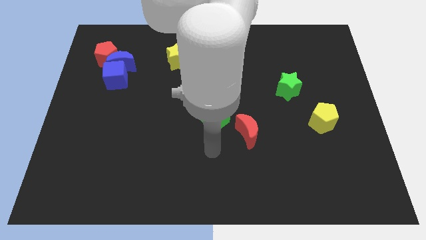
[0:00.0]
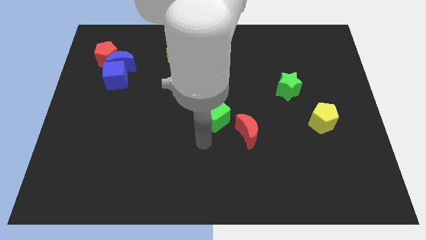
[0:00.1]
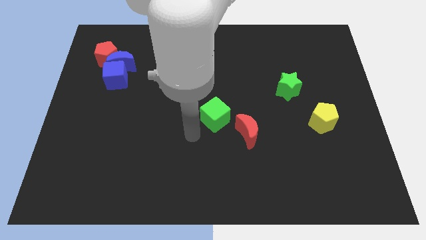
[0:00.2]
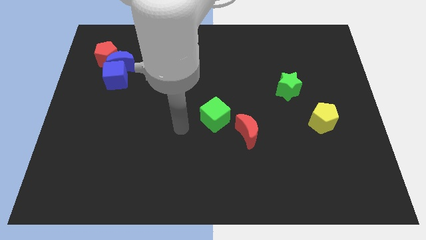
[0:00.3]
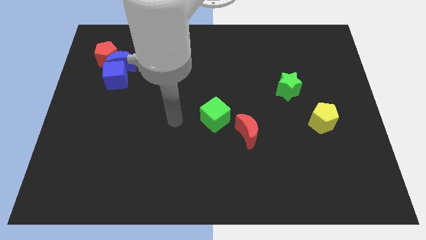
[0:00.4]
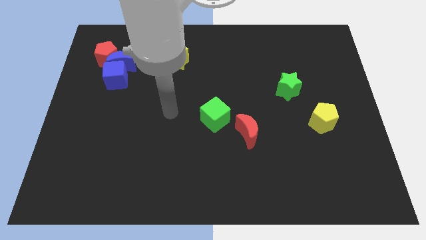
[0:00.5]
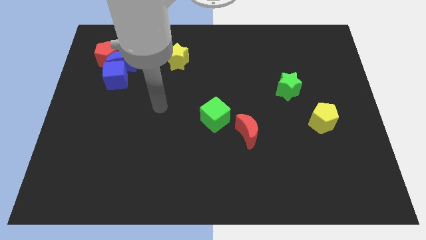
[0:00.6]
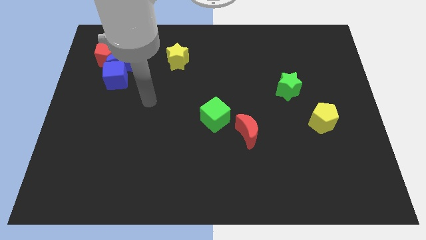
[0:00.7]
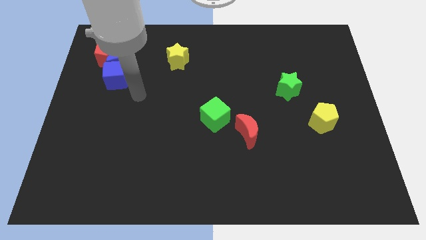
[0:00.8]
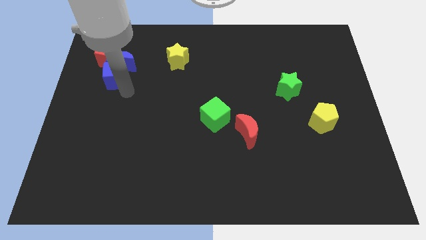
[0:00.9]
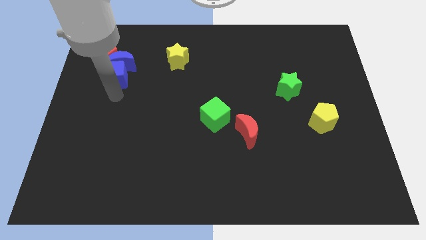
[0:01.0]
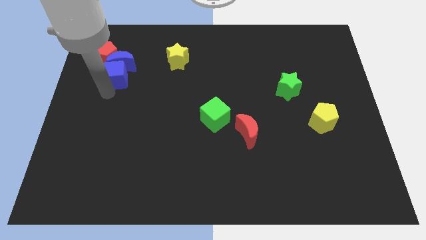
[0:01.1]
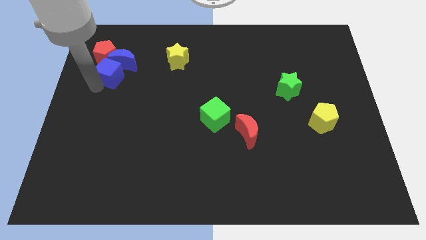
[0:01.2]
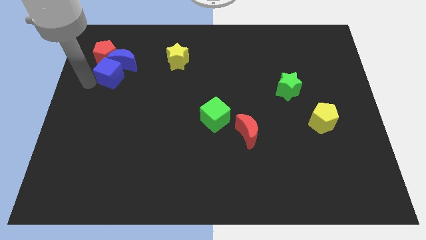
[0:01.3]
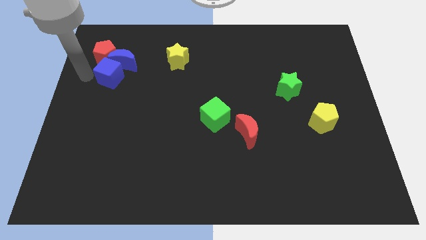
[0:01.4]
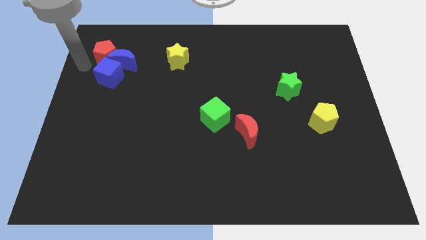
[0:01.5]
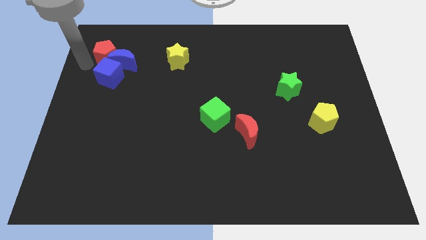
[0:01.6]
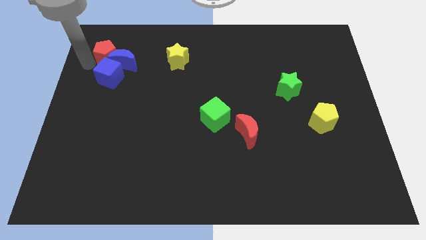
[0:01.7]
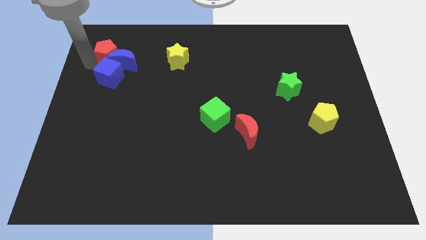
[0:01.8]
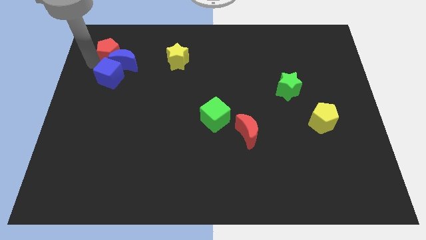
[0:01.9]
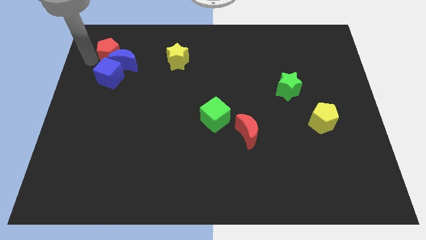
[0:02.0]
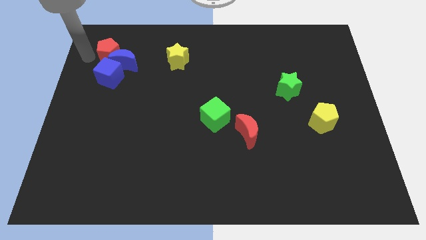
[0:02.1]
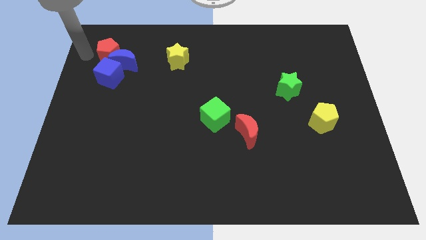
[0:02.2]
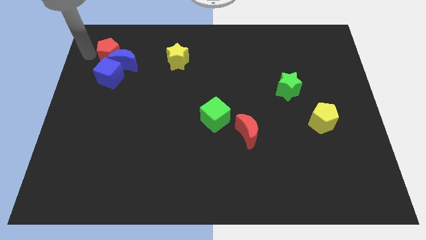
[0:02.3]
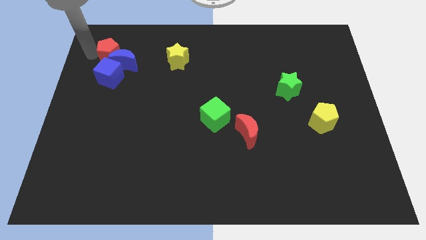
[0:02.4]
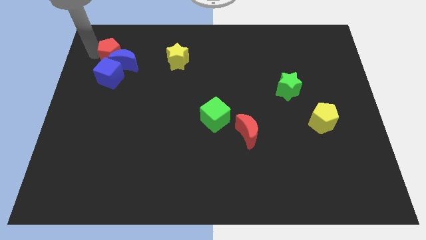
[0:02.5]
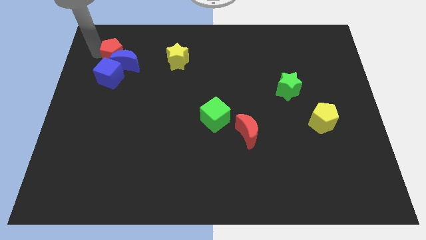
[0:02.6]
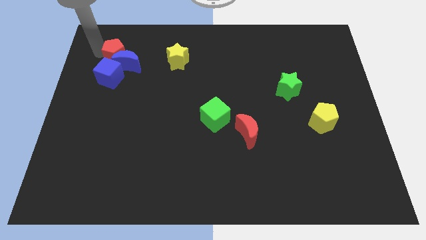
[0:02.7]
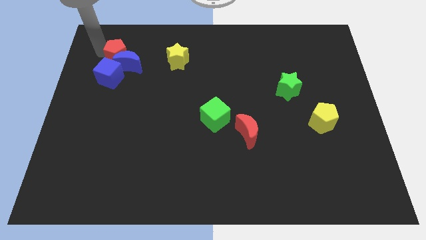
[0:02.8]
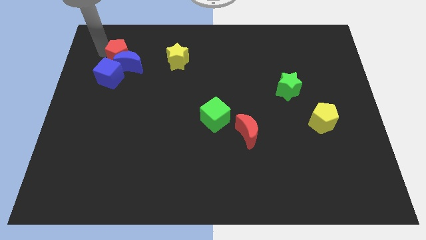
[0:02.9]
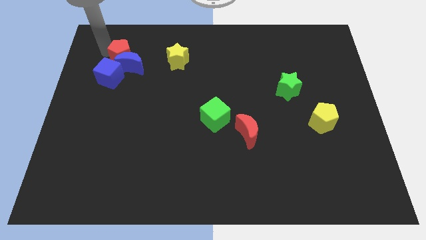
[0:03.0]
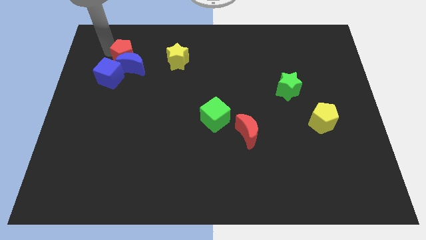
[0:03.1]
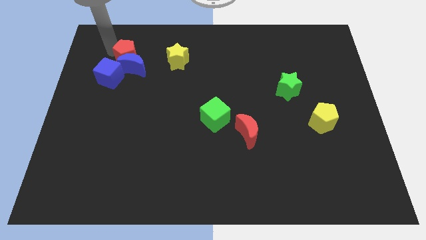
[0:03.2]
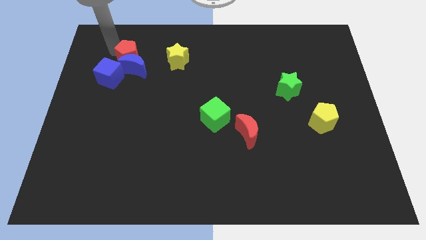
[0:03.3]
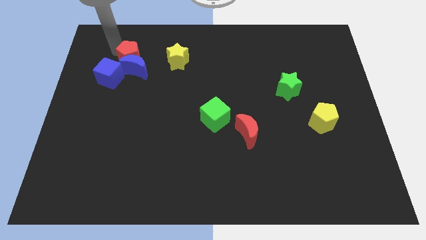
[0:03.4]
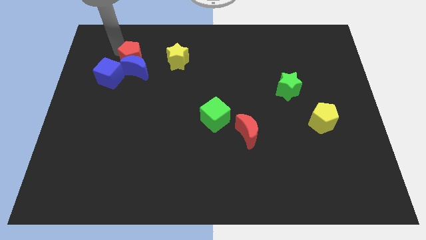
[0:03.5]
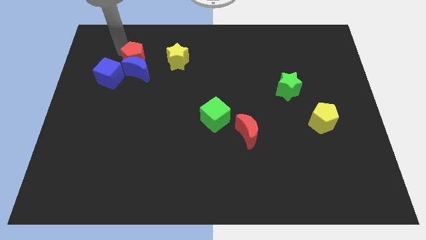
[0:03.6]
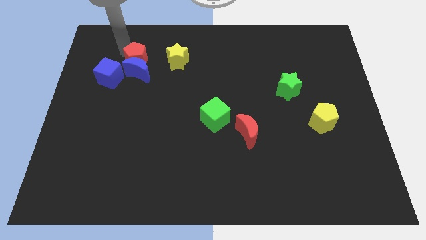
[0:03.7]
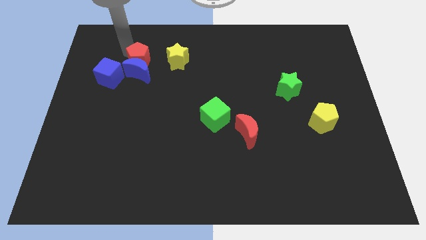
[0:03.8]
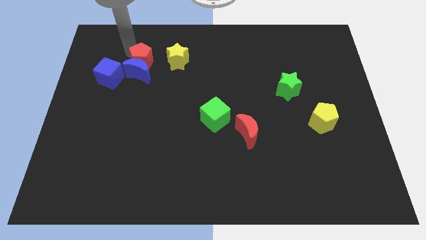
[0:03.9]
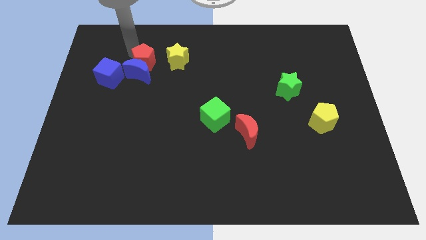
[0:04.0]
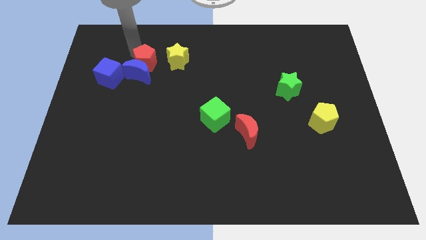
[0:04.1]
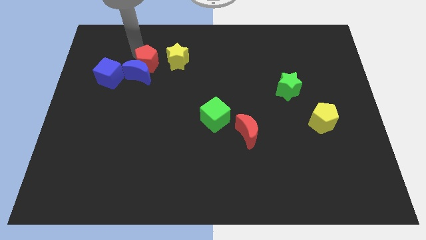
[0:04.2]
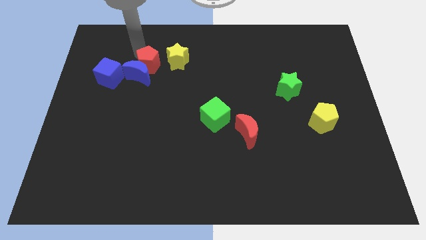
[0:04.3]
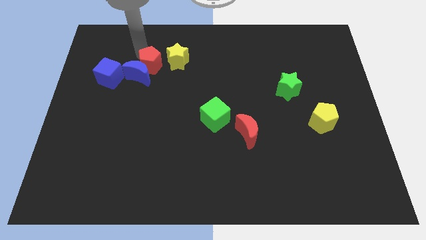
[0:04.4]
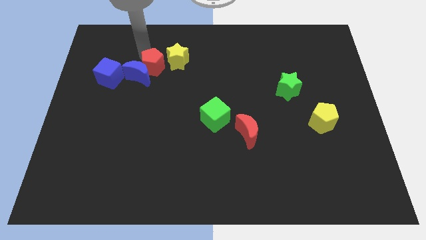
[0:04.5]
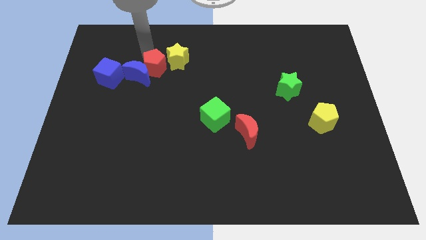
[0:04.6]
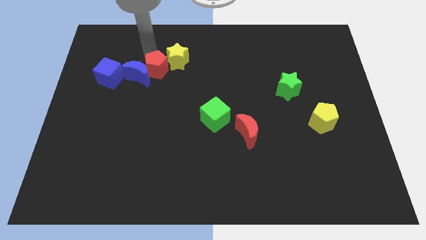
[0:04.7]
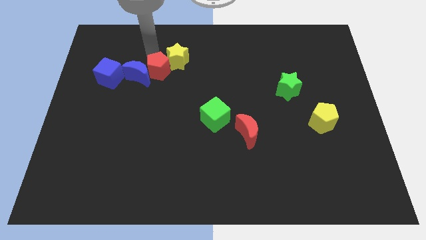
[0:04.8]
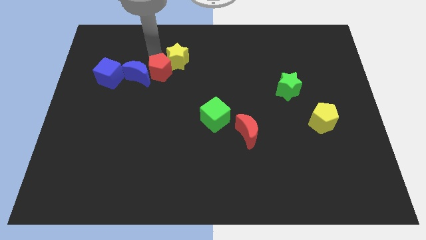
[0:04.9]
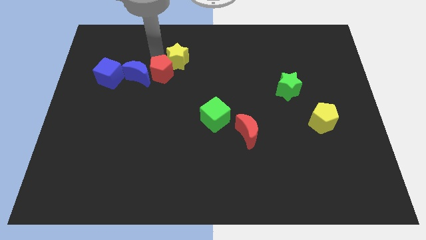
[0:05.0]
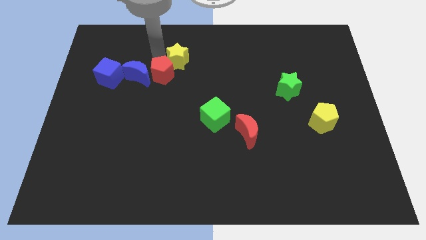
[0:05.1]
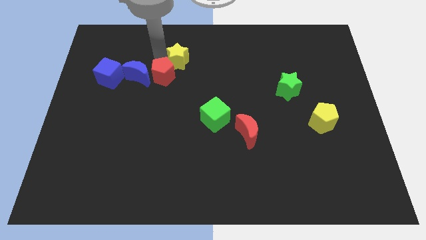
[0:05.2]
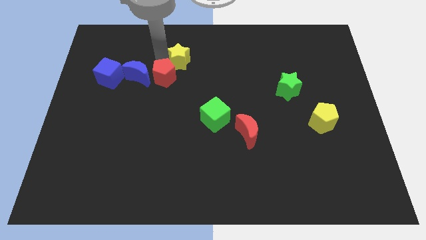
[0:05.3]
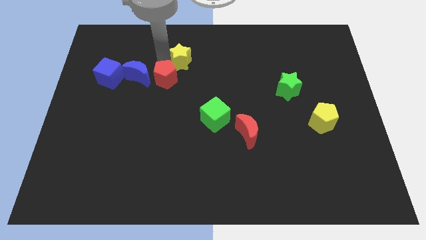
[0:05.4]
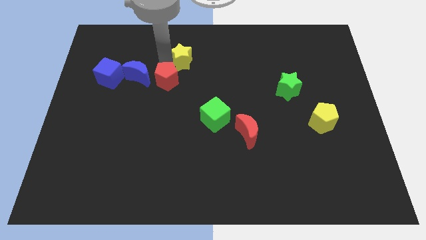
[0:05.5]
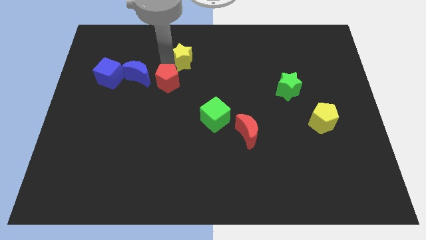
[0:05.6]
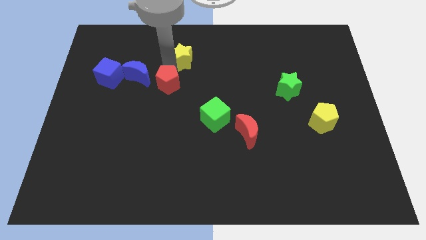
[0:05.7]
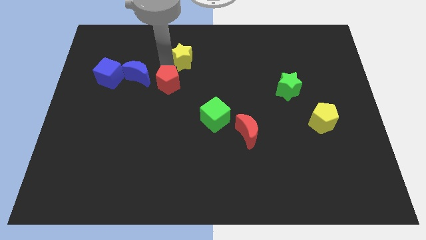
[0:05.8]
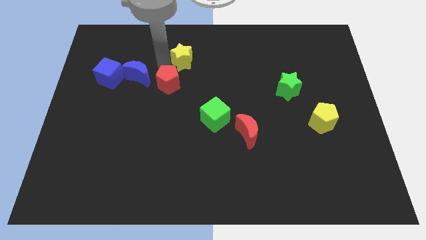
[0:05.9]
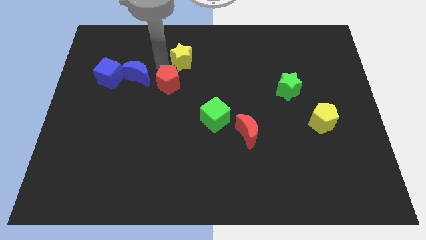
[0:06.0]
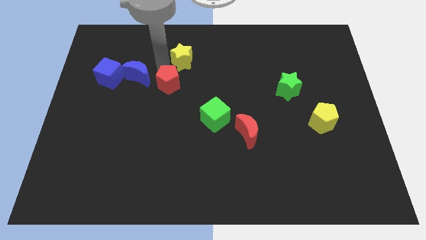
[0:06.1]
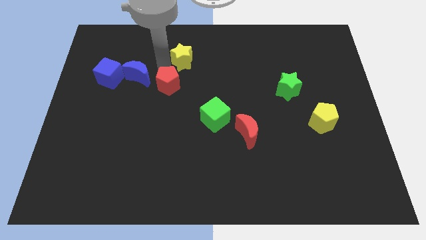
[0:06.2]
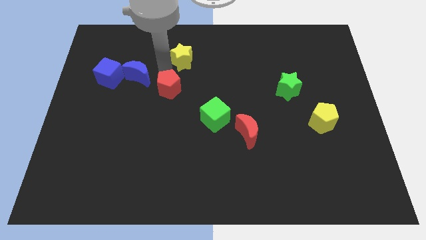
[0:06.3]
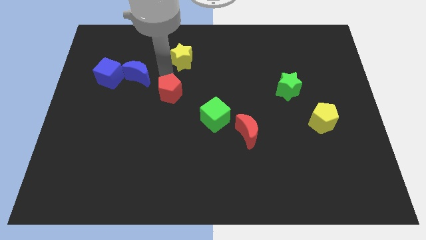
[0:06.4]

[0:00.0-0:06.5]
slide the red pentagon down and then to the right

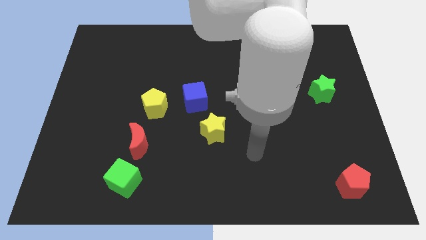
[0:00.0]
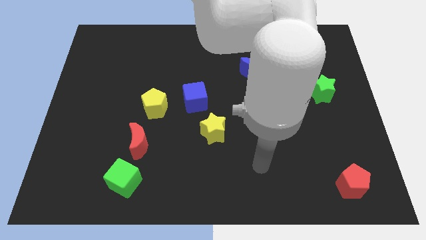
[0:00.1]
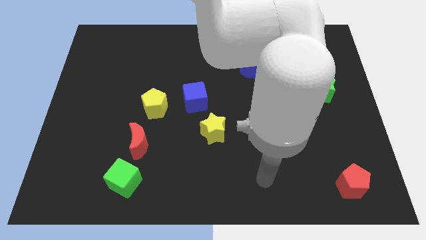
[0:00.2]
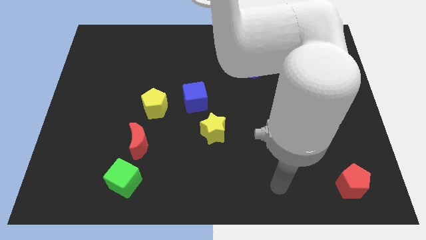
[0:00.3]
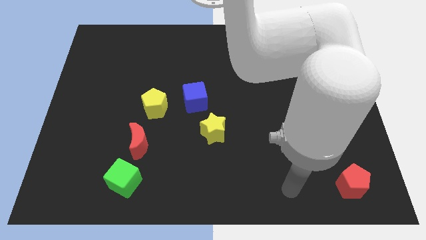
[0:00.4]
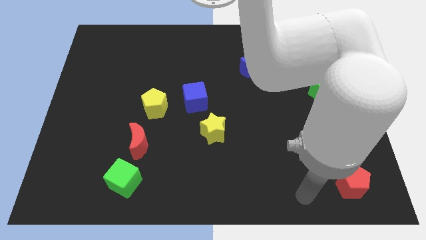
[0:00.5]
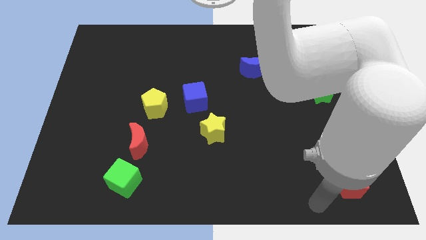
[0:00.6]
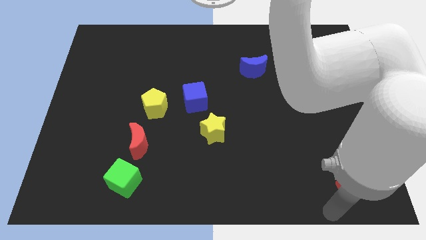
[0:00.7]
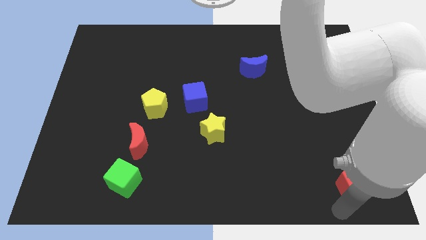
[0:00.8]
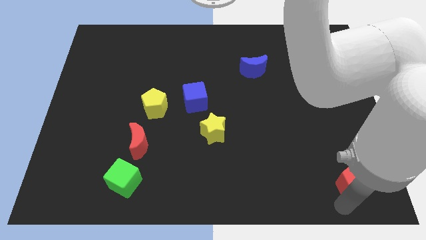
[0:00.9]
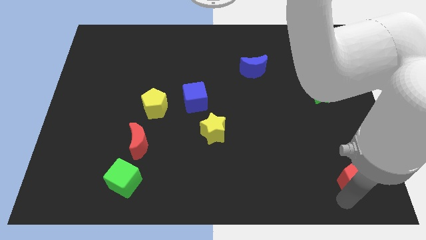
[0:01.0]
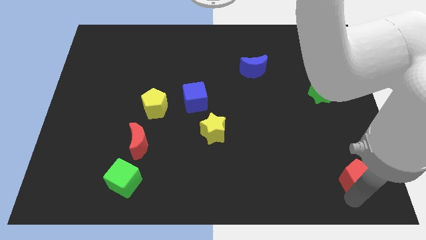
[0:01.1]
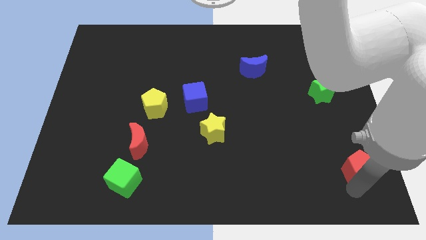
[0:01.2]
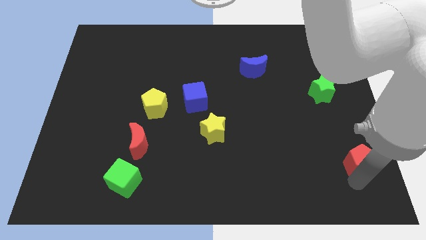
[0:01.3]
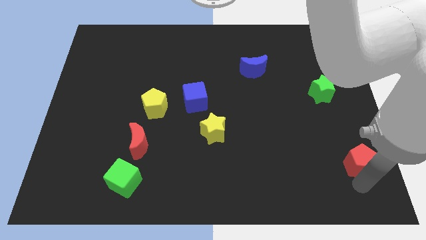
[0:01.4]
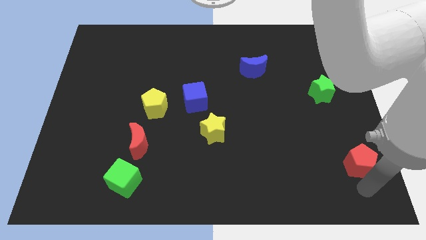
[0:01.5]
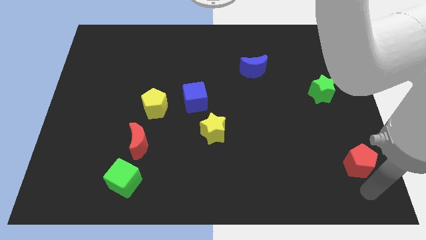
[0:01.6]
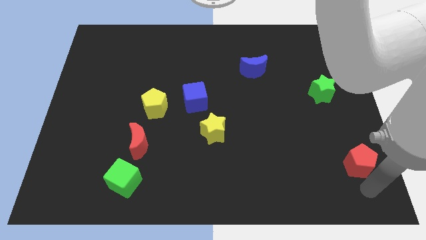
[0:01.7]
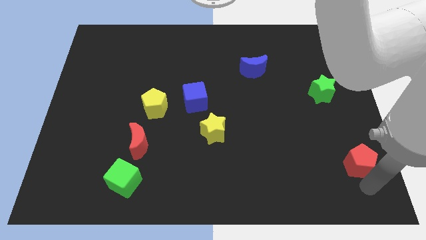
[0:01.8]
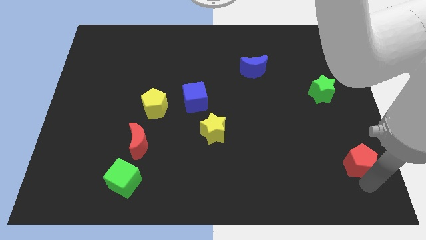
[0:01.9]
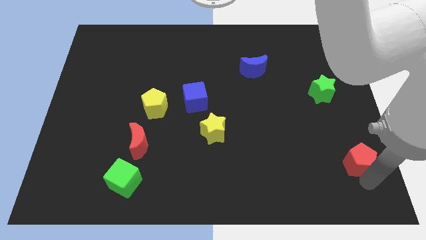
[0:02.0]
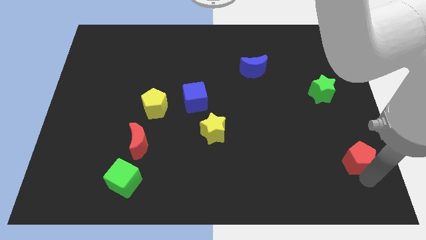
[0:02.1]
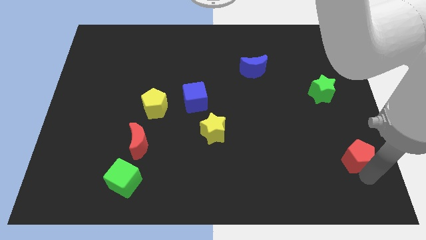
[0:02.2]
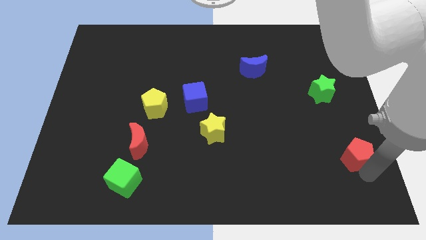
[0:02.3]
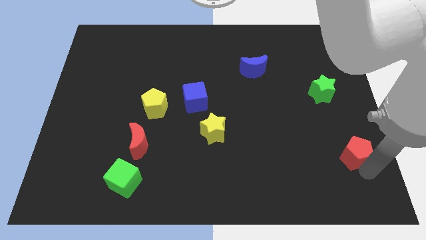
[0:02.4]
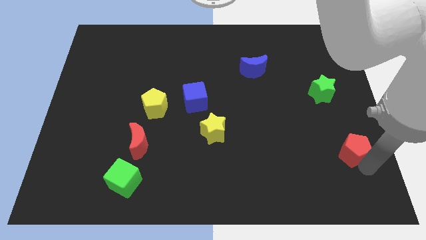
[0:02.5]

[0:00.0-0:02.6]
slightly move the red pentagon upwards
